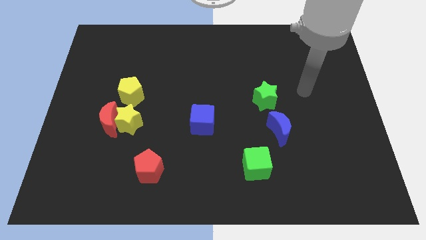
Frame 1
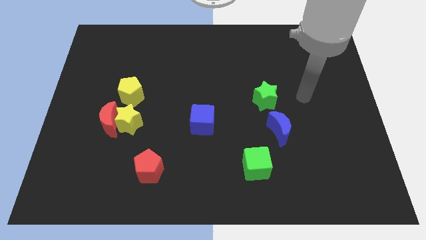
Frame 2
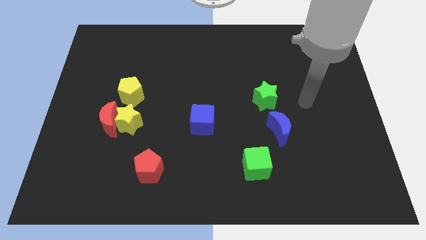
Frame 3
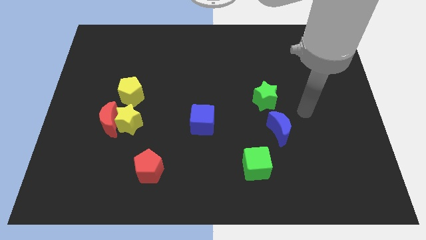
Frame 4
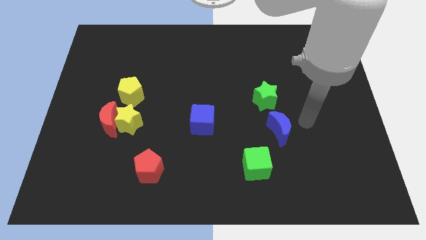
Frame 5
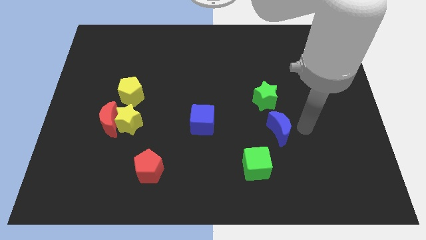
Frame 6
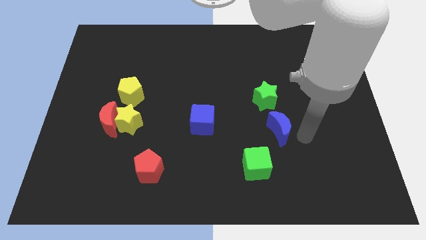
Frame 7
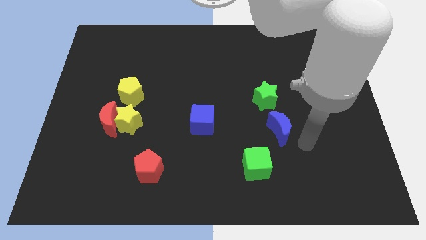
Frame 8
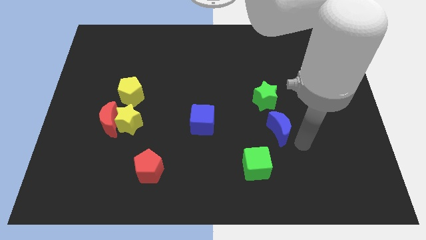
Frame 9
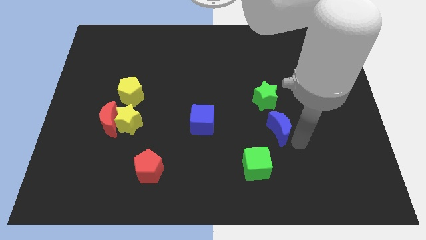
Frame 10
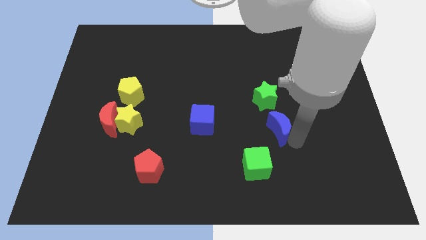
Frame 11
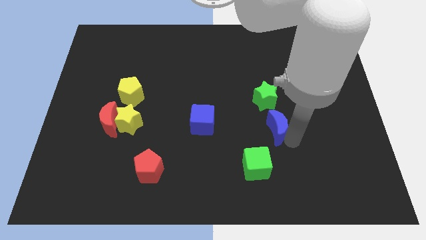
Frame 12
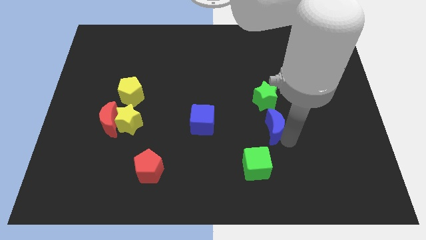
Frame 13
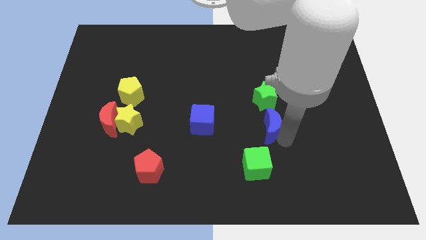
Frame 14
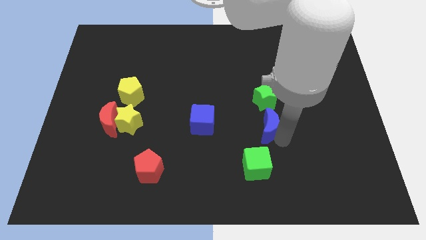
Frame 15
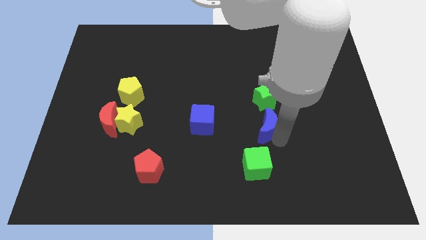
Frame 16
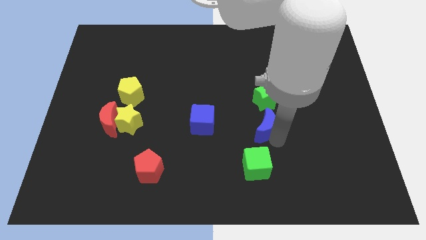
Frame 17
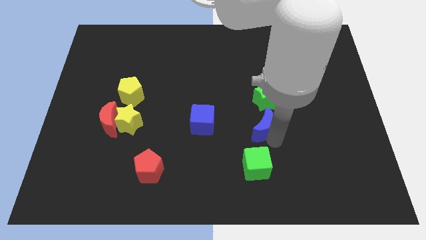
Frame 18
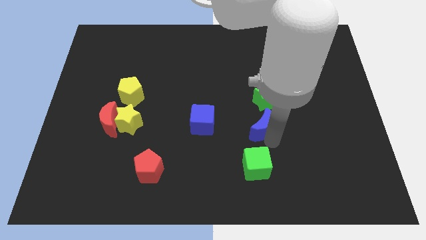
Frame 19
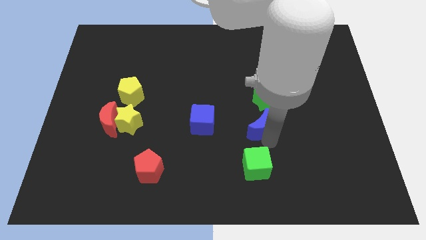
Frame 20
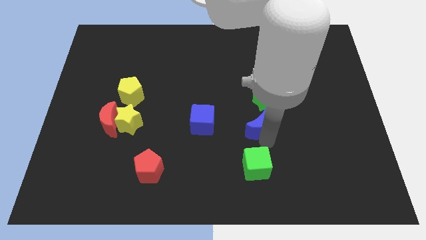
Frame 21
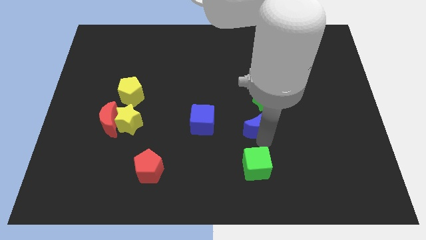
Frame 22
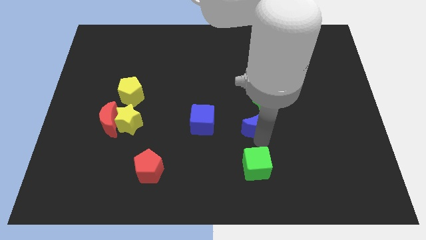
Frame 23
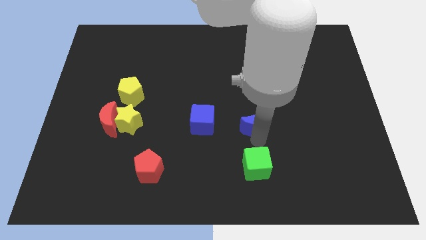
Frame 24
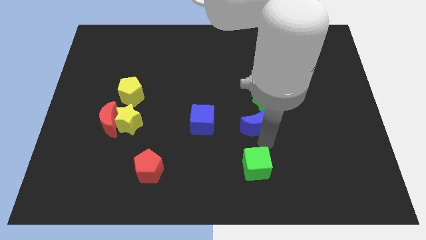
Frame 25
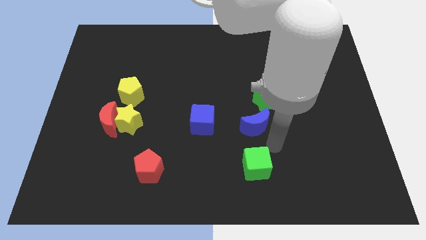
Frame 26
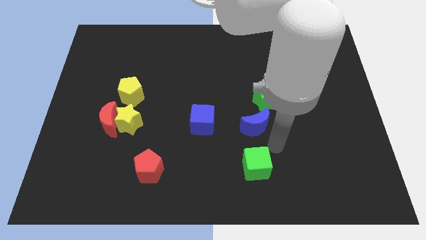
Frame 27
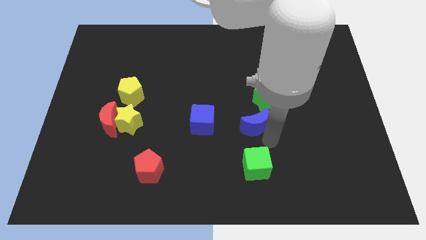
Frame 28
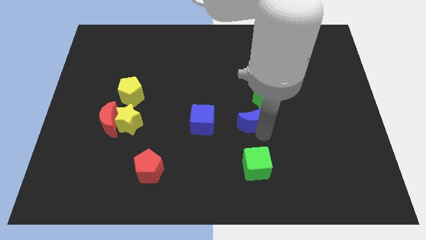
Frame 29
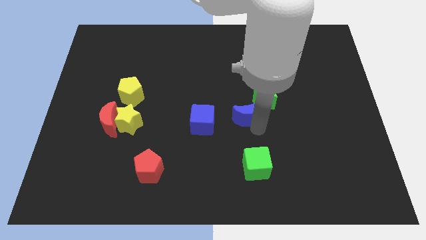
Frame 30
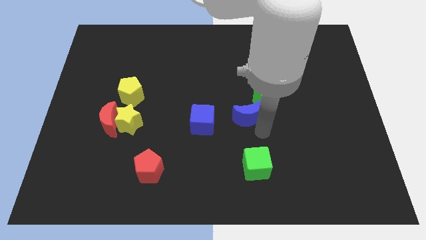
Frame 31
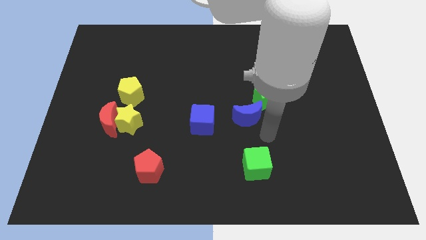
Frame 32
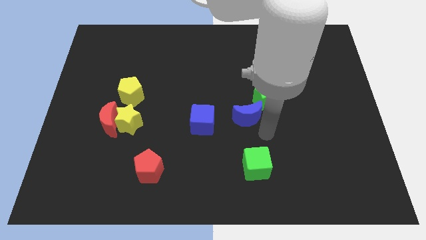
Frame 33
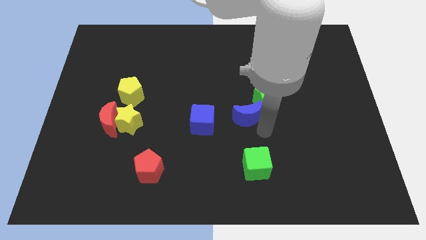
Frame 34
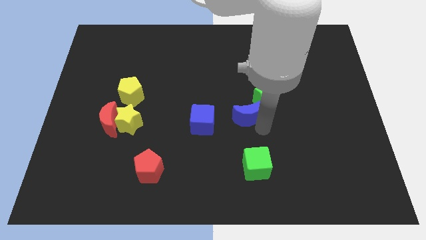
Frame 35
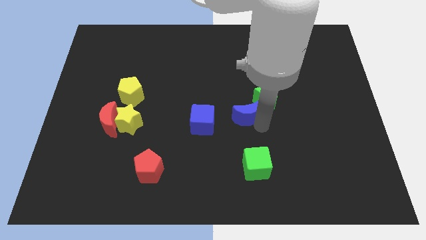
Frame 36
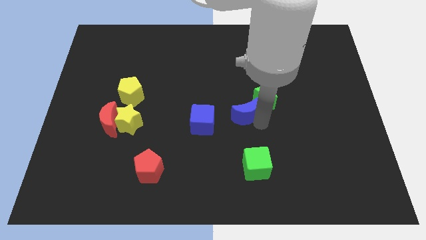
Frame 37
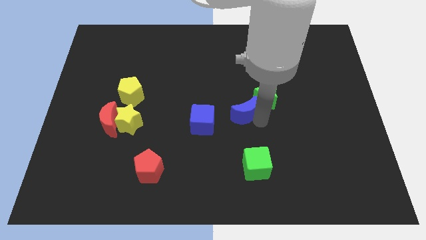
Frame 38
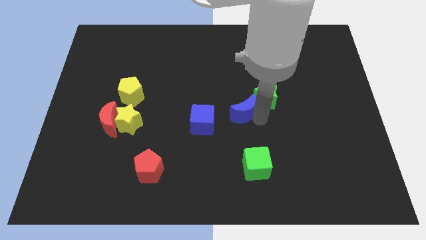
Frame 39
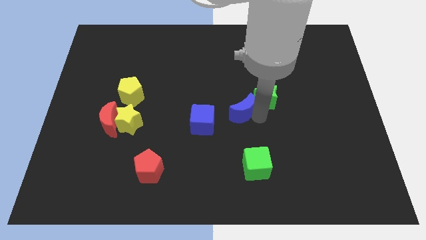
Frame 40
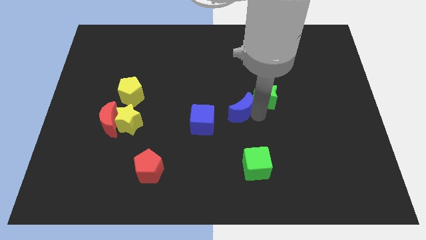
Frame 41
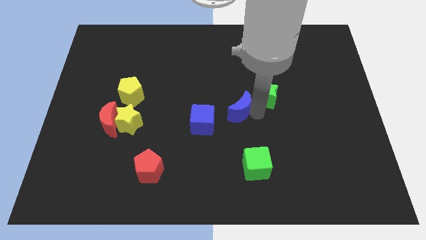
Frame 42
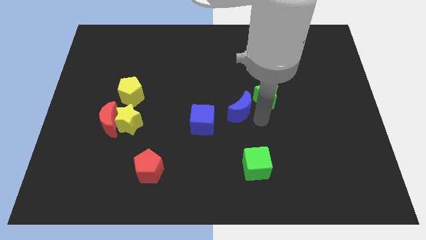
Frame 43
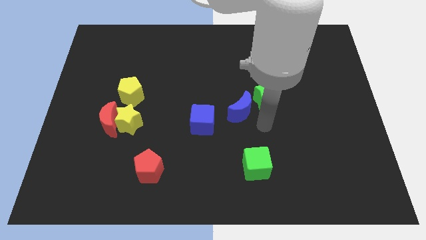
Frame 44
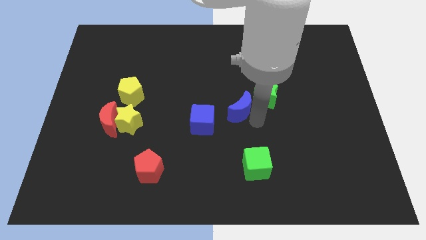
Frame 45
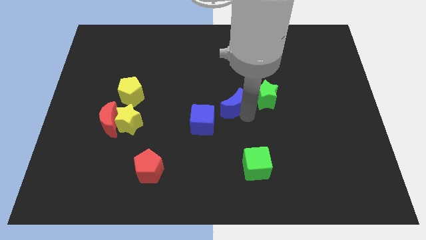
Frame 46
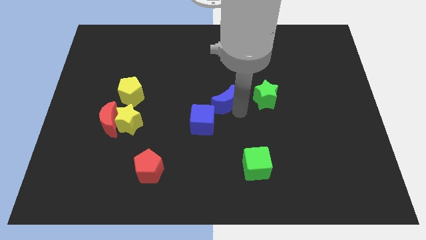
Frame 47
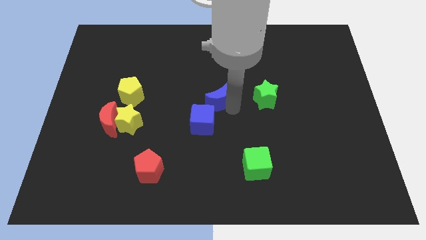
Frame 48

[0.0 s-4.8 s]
put the blue moon to the top side of the blue cube

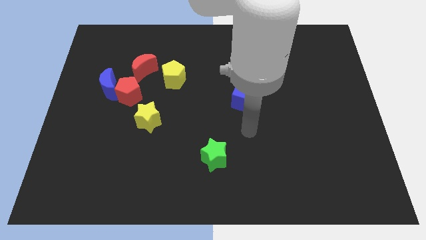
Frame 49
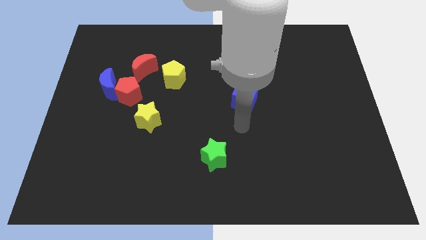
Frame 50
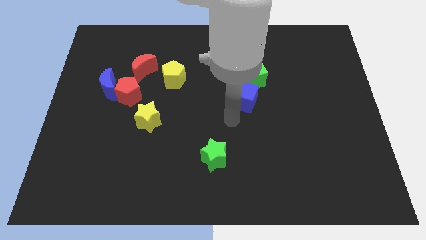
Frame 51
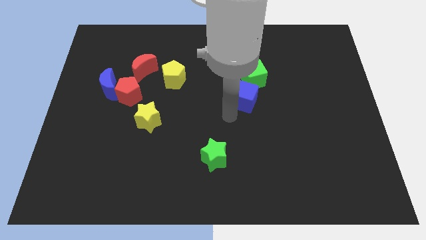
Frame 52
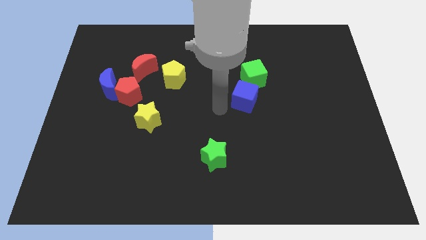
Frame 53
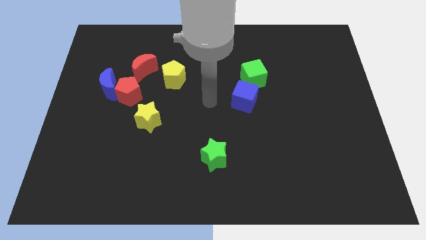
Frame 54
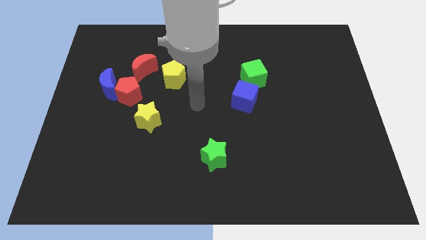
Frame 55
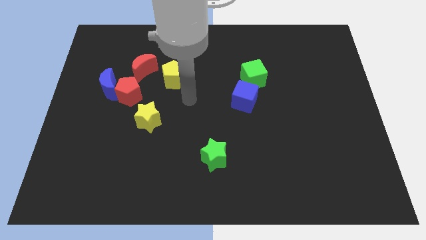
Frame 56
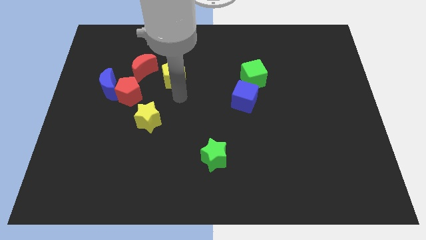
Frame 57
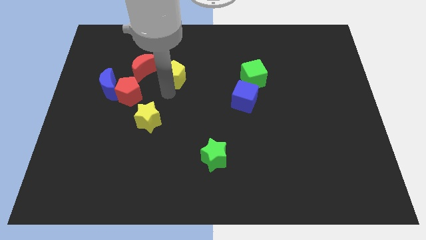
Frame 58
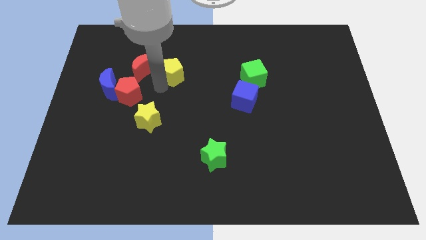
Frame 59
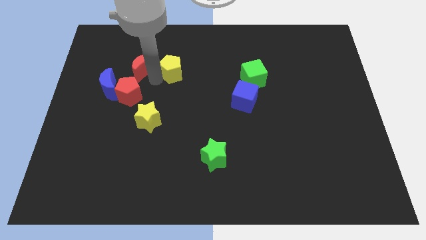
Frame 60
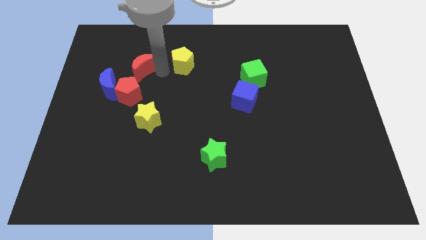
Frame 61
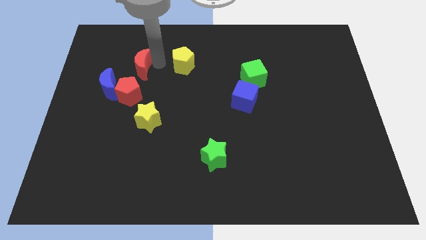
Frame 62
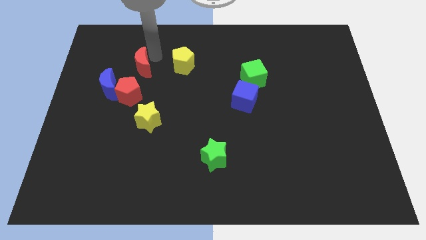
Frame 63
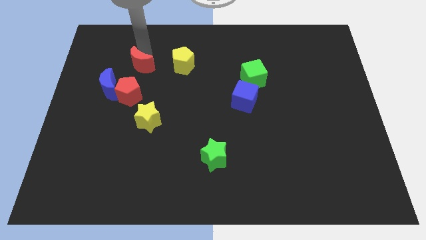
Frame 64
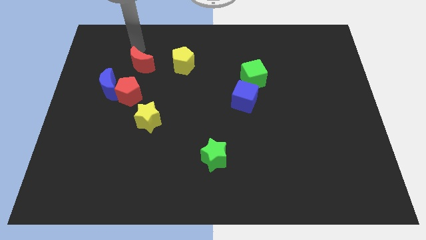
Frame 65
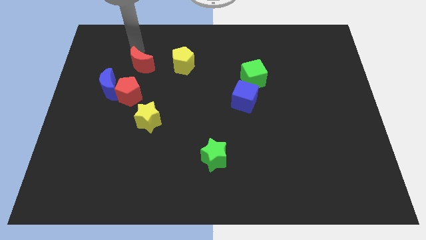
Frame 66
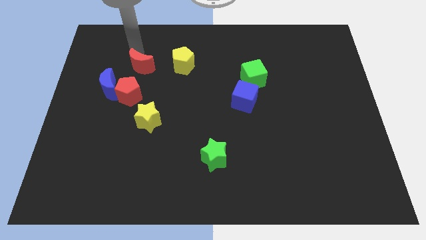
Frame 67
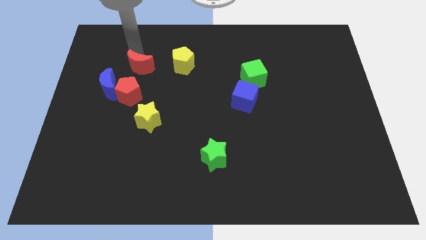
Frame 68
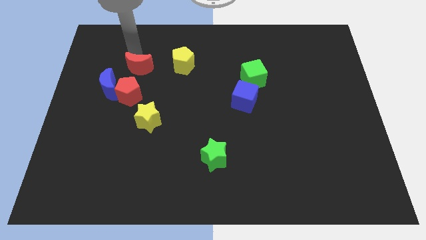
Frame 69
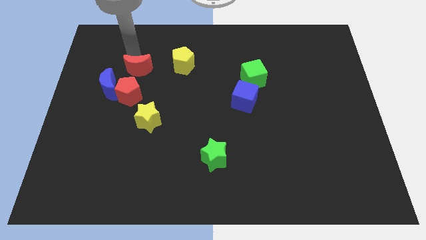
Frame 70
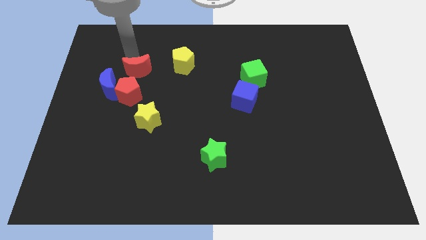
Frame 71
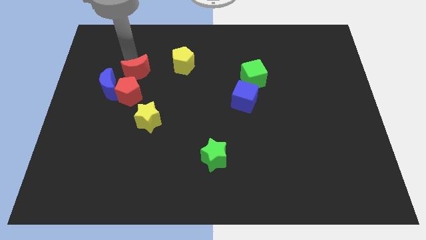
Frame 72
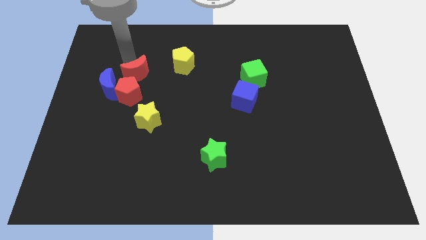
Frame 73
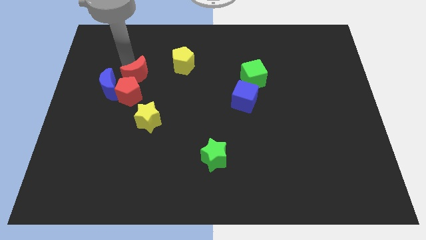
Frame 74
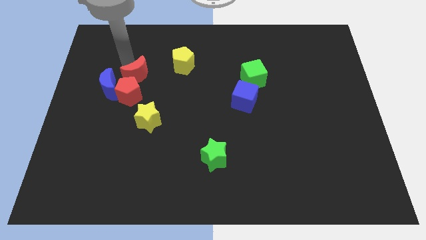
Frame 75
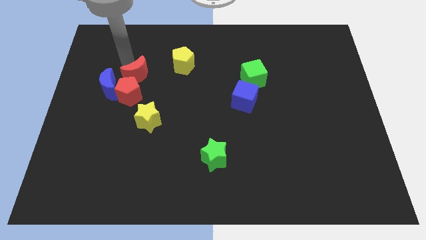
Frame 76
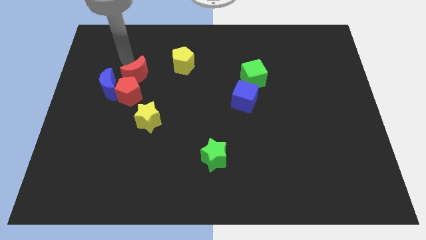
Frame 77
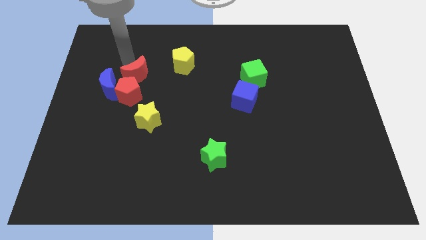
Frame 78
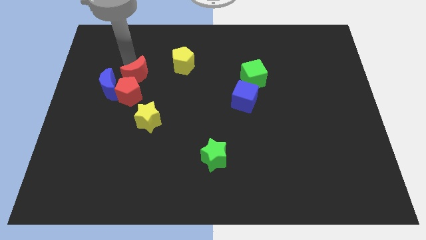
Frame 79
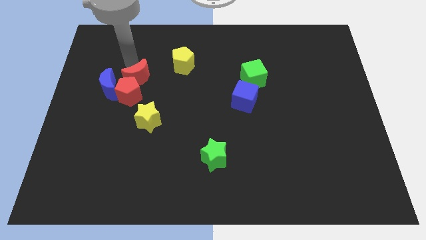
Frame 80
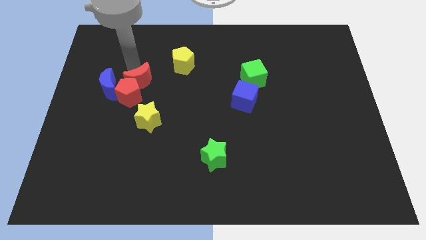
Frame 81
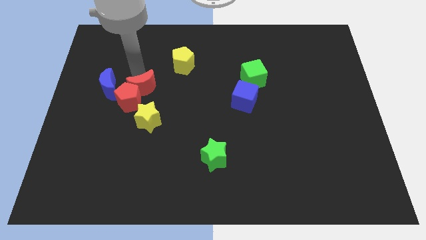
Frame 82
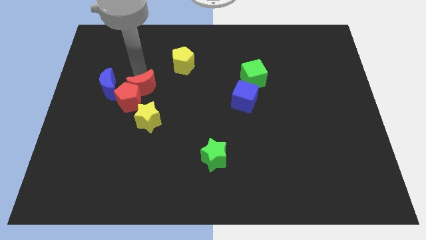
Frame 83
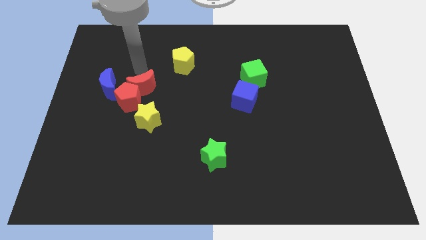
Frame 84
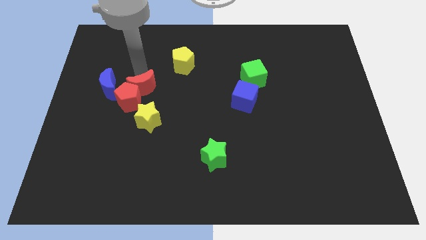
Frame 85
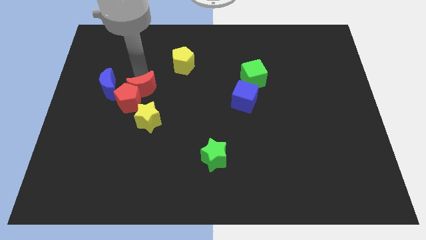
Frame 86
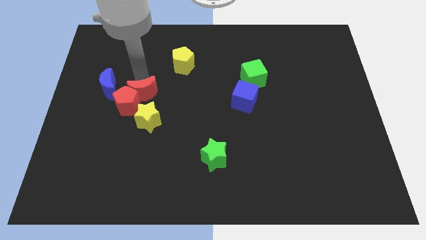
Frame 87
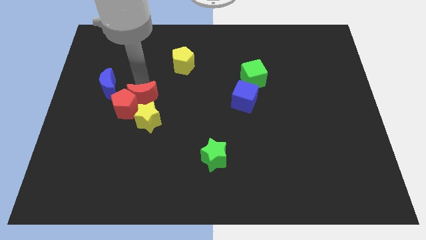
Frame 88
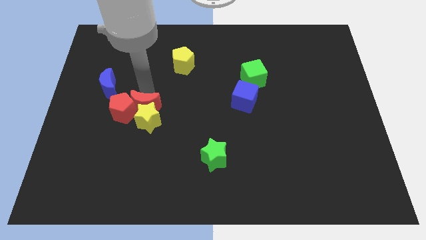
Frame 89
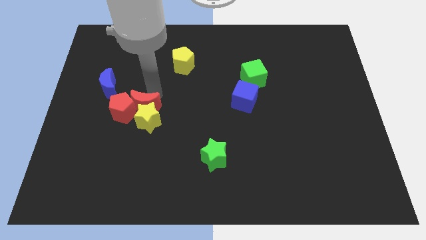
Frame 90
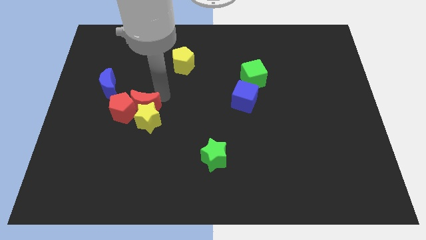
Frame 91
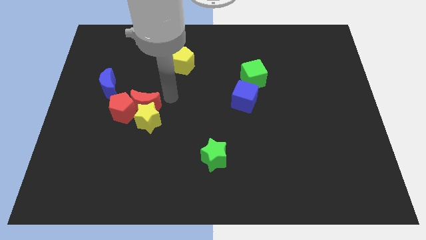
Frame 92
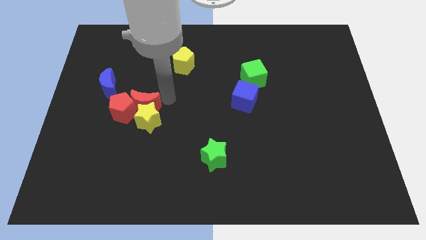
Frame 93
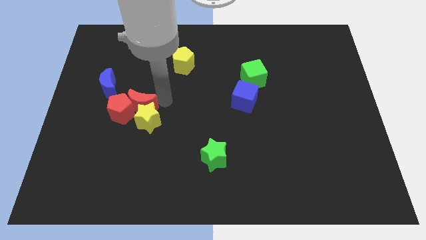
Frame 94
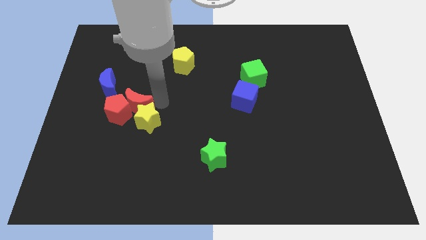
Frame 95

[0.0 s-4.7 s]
put the red moon to the left side of the yellow star
